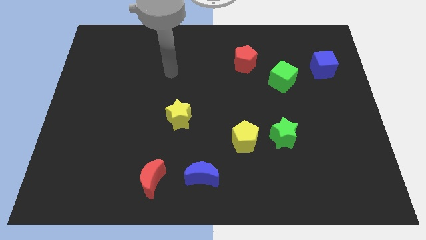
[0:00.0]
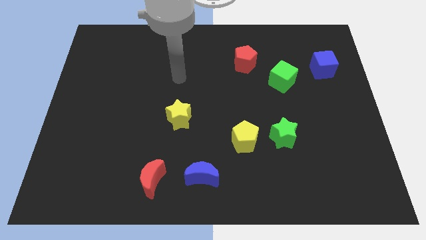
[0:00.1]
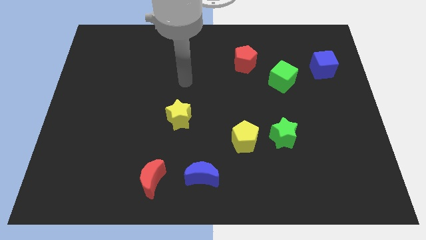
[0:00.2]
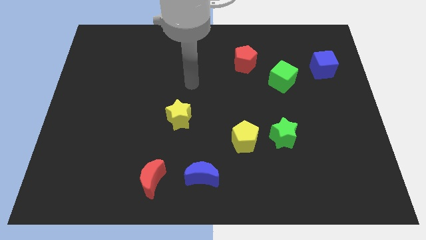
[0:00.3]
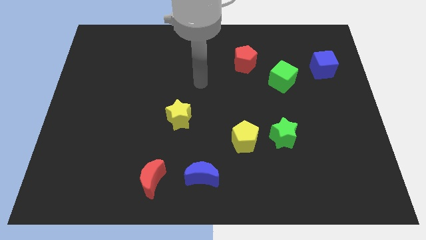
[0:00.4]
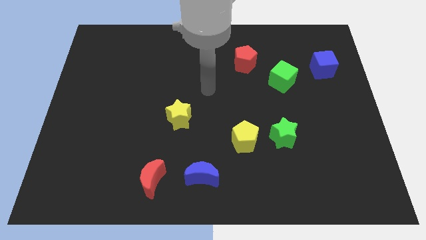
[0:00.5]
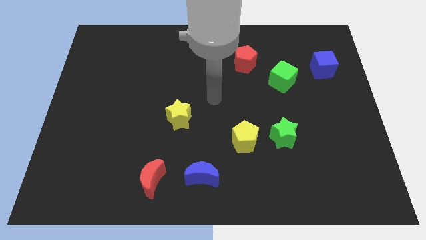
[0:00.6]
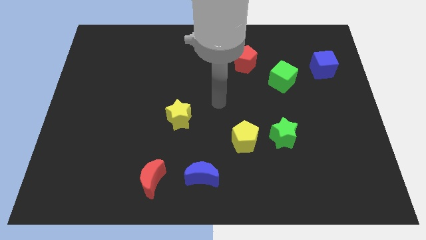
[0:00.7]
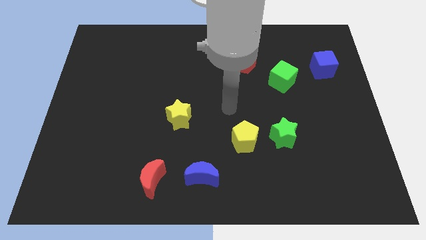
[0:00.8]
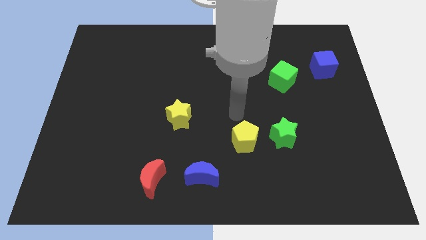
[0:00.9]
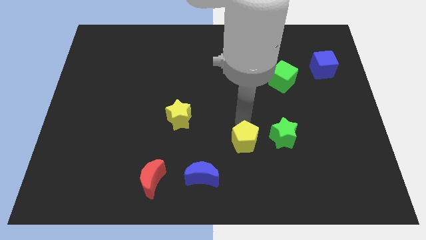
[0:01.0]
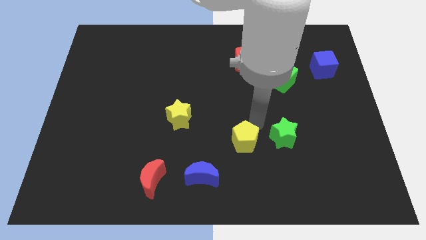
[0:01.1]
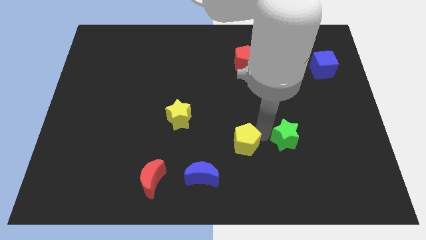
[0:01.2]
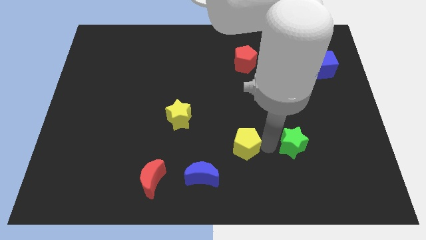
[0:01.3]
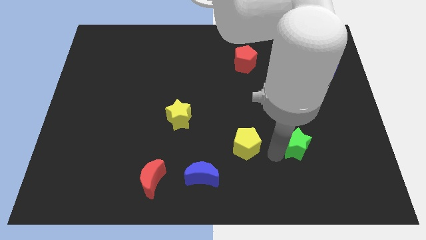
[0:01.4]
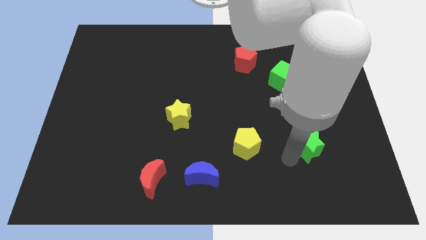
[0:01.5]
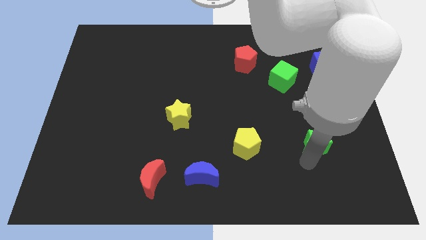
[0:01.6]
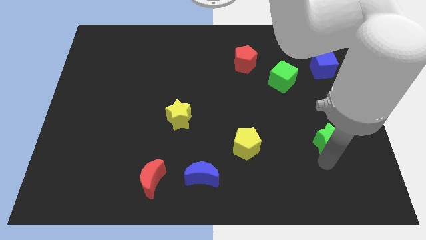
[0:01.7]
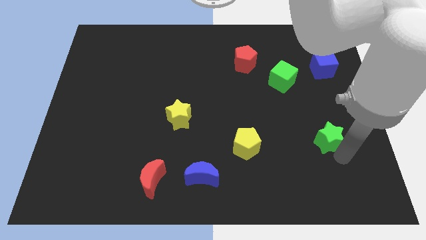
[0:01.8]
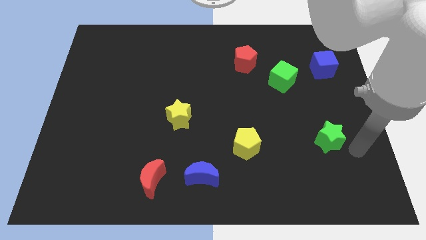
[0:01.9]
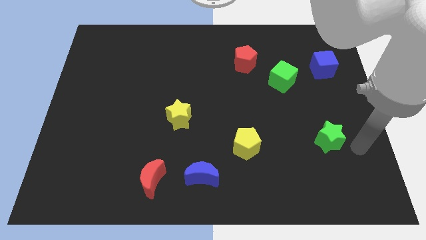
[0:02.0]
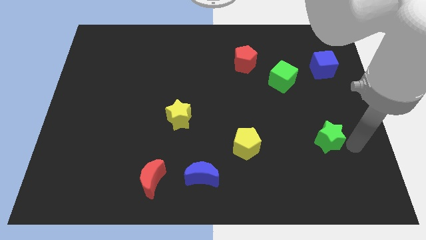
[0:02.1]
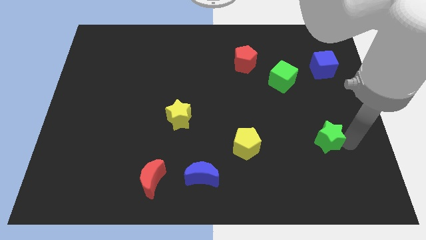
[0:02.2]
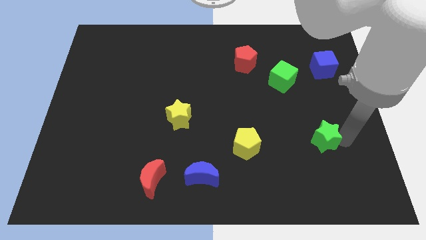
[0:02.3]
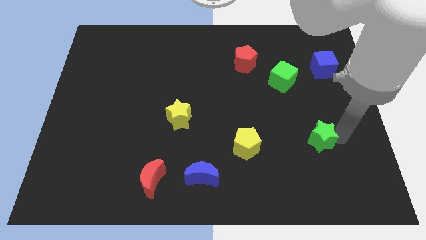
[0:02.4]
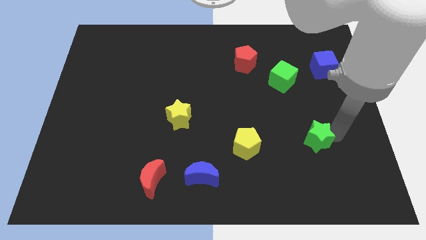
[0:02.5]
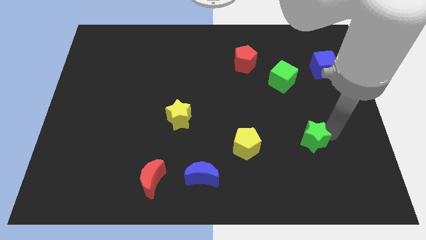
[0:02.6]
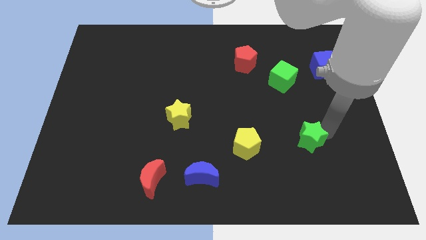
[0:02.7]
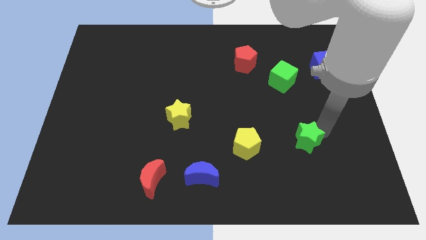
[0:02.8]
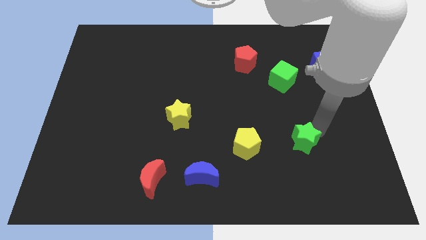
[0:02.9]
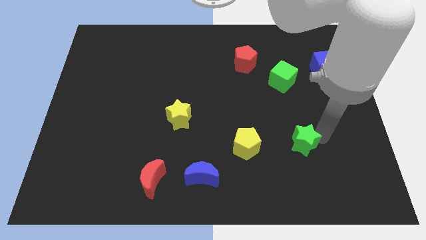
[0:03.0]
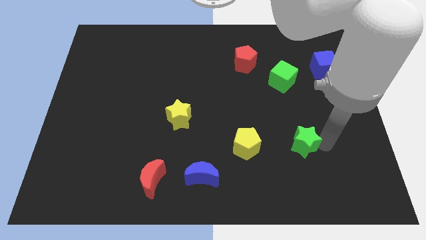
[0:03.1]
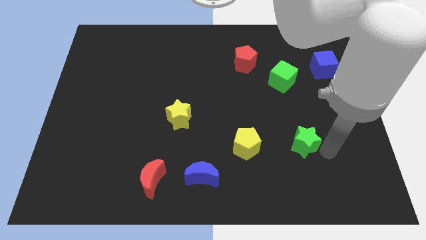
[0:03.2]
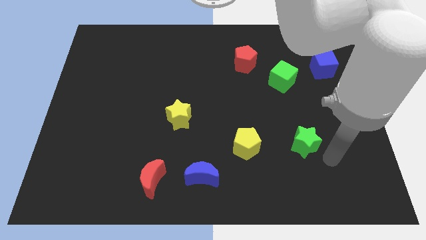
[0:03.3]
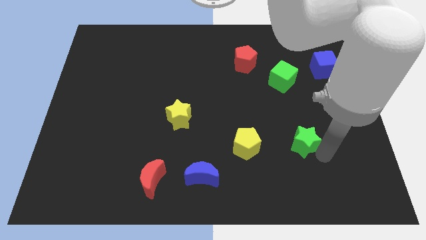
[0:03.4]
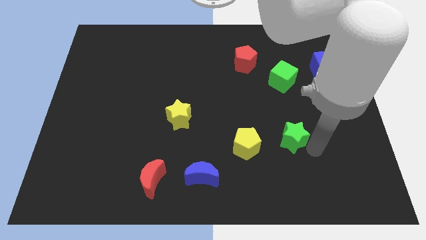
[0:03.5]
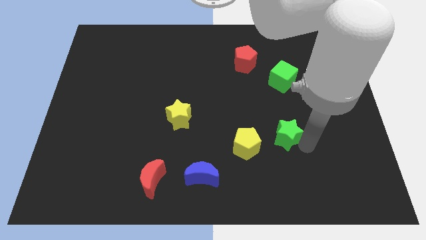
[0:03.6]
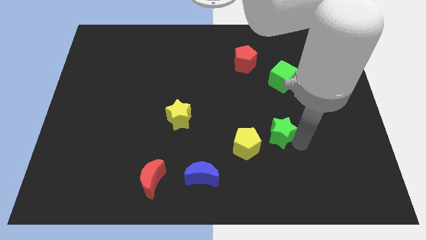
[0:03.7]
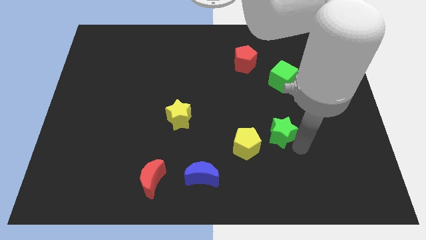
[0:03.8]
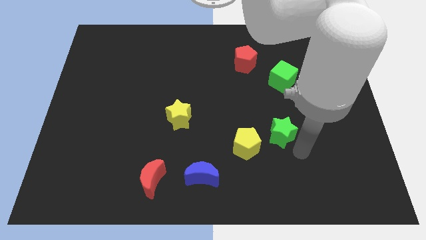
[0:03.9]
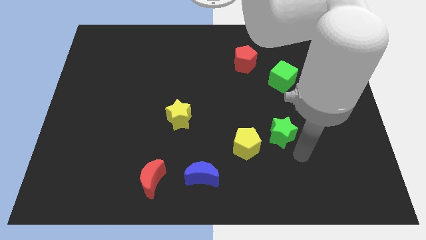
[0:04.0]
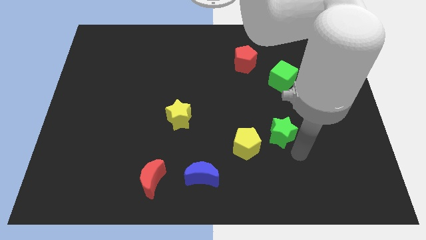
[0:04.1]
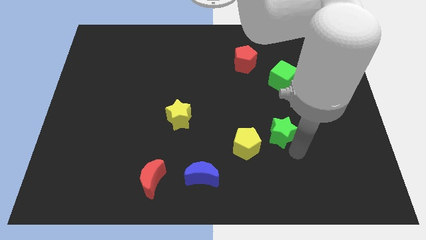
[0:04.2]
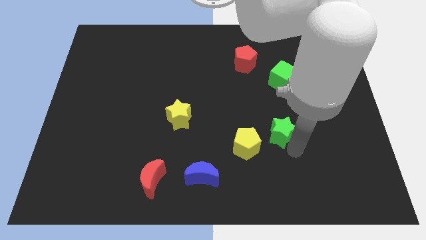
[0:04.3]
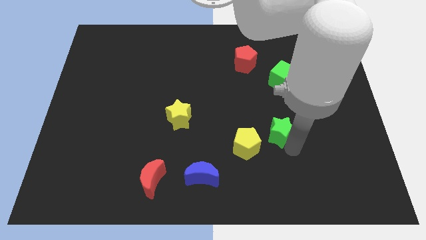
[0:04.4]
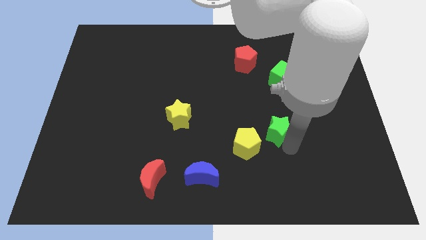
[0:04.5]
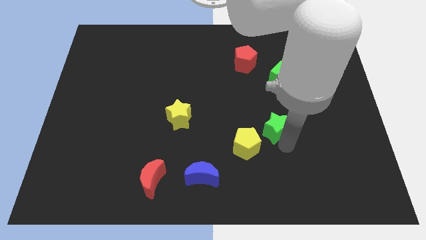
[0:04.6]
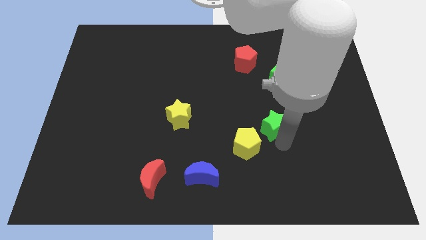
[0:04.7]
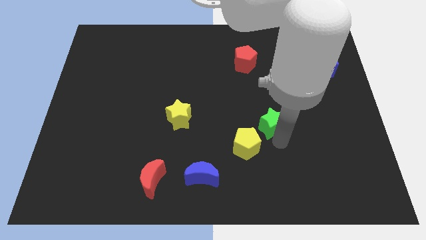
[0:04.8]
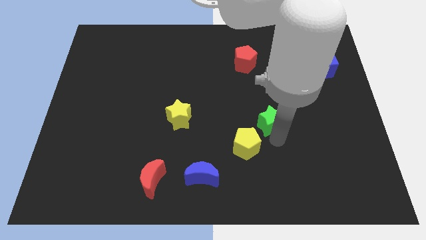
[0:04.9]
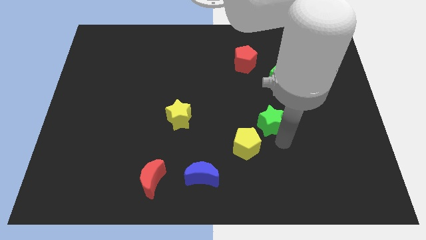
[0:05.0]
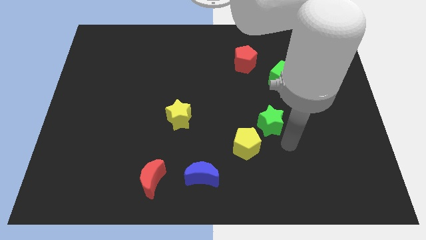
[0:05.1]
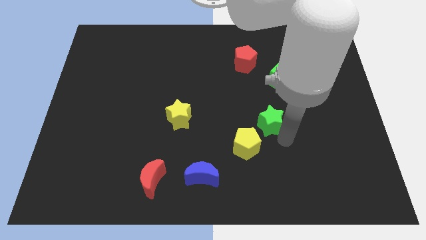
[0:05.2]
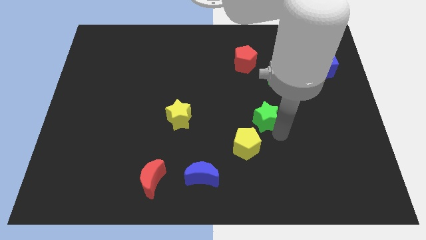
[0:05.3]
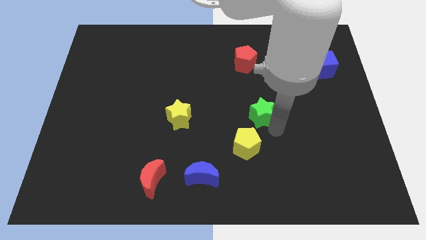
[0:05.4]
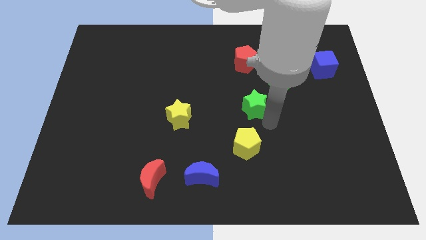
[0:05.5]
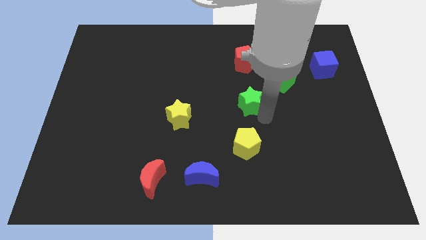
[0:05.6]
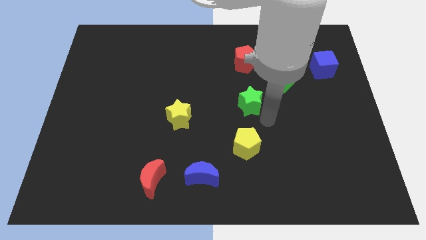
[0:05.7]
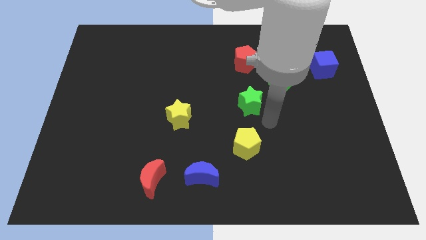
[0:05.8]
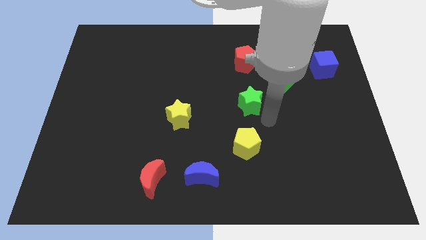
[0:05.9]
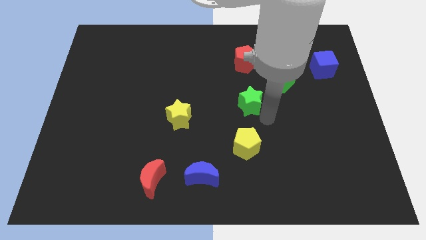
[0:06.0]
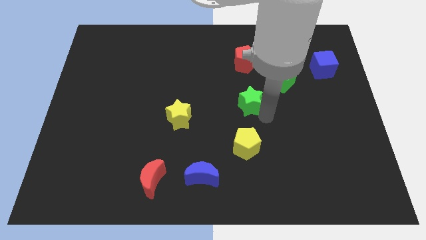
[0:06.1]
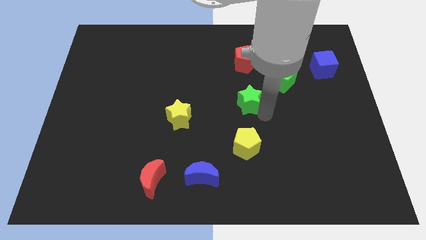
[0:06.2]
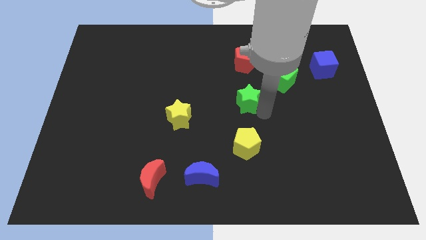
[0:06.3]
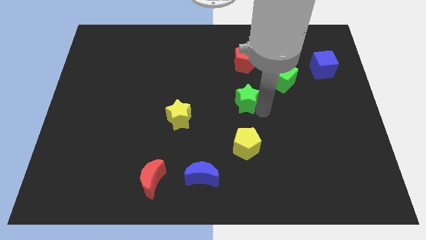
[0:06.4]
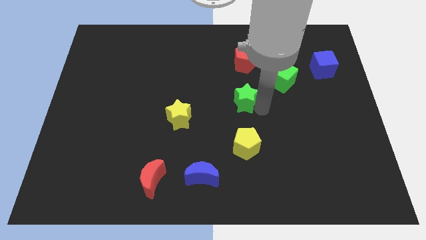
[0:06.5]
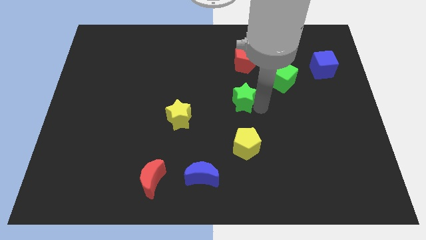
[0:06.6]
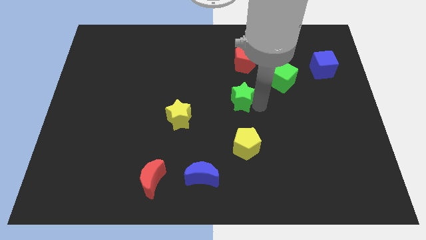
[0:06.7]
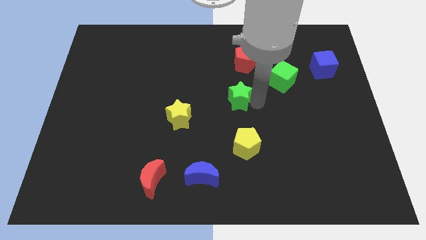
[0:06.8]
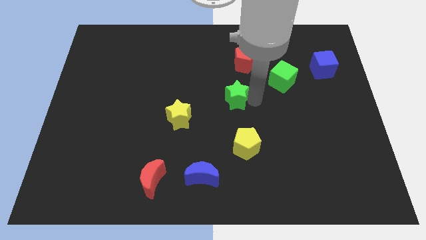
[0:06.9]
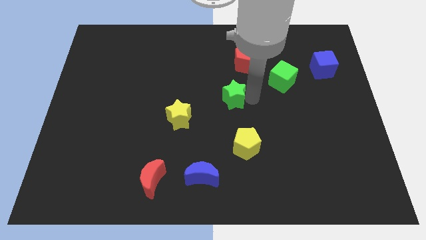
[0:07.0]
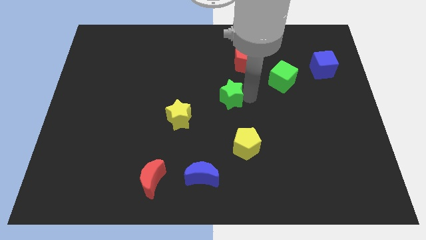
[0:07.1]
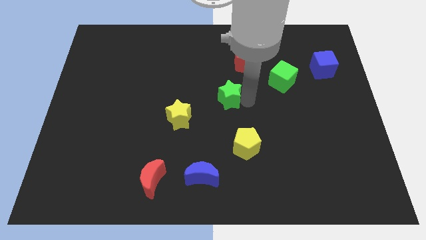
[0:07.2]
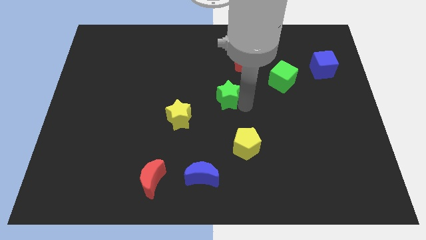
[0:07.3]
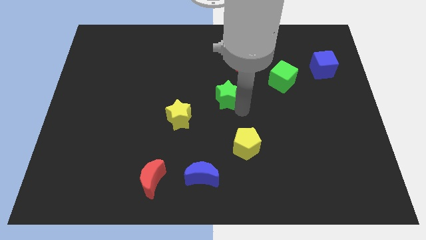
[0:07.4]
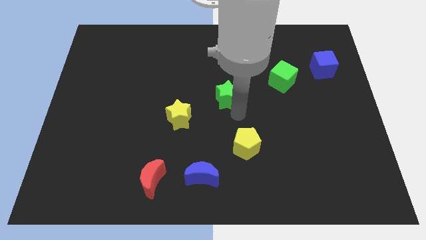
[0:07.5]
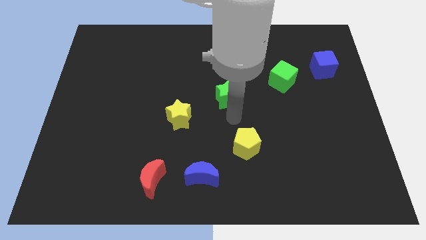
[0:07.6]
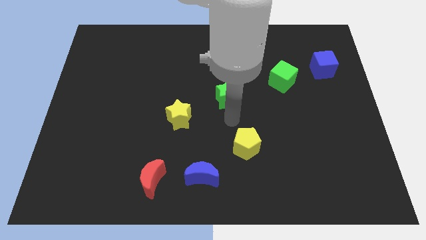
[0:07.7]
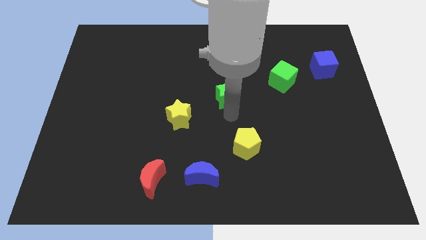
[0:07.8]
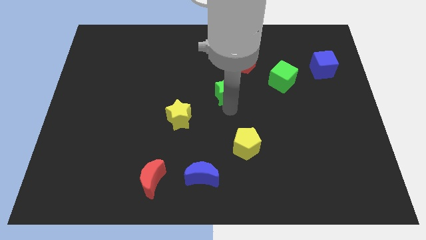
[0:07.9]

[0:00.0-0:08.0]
slide the green star to the bottom left side of the red pentagon
